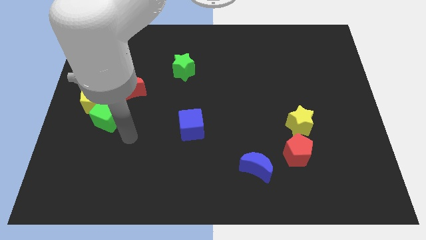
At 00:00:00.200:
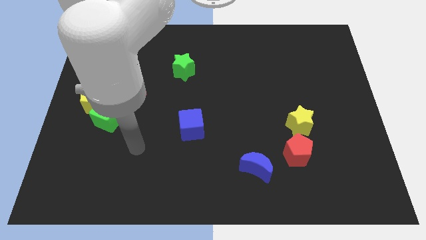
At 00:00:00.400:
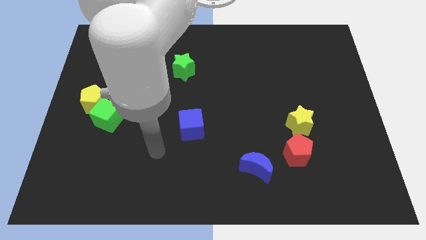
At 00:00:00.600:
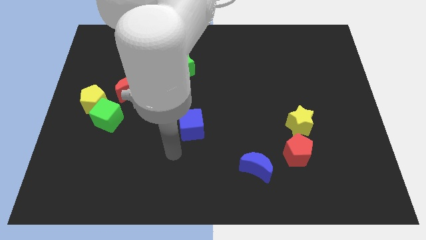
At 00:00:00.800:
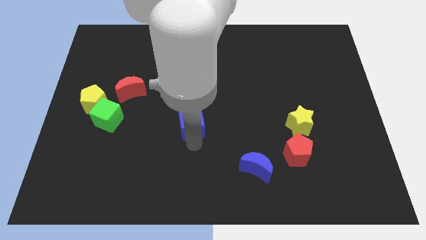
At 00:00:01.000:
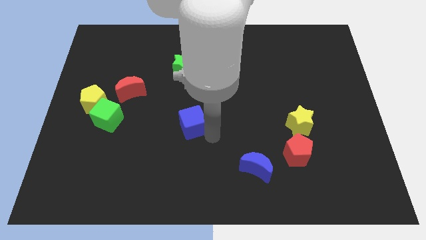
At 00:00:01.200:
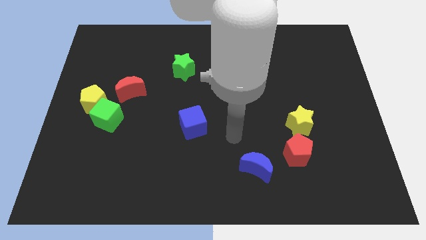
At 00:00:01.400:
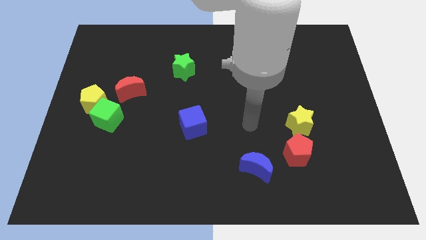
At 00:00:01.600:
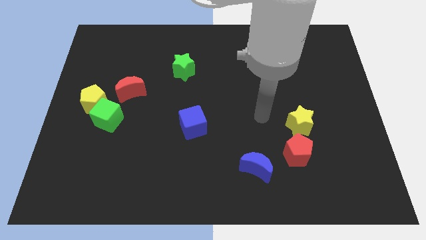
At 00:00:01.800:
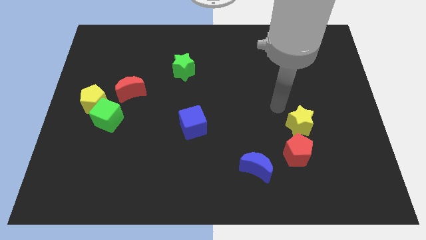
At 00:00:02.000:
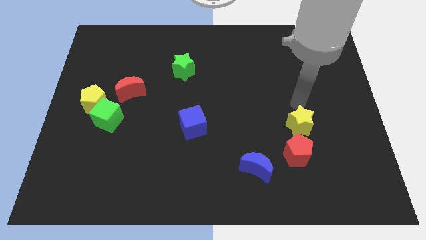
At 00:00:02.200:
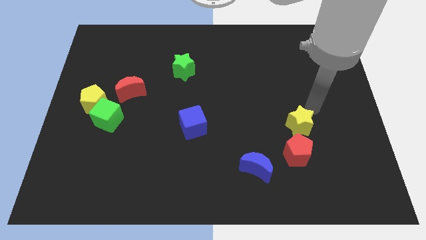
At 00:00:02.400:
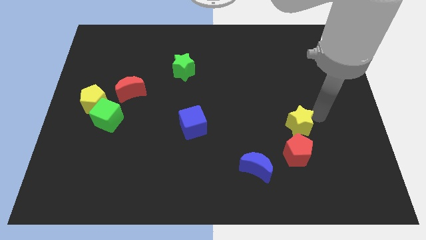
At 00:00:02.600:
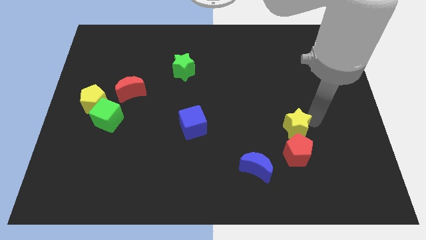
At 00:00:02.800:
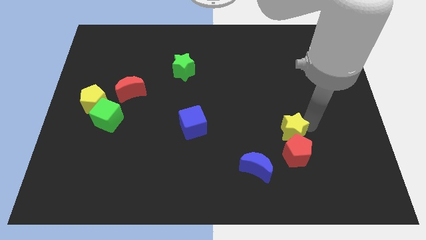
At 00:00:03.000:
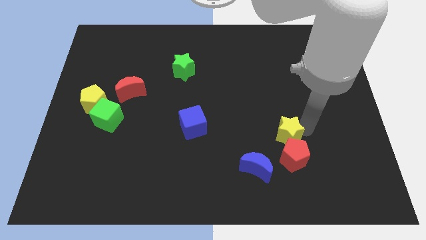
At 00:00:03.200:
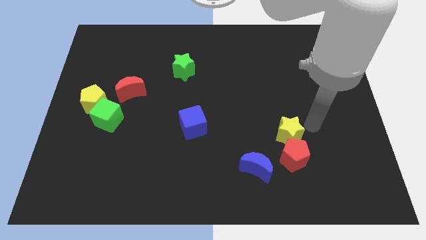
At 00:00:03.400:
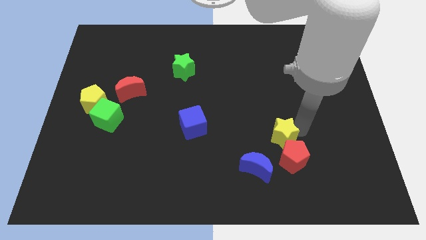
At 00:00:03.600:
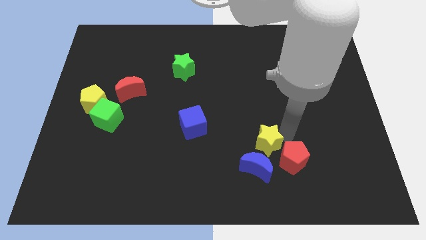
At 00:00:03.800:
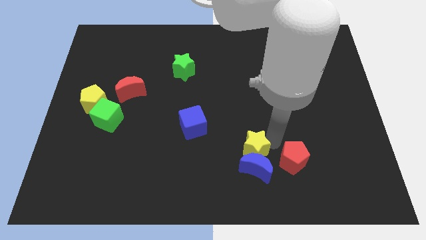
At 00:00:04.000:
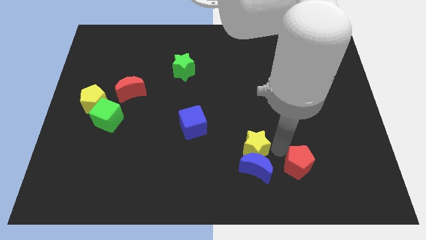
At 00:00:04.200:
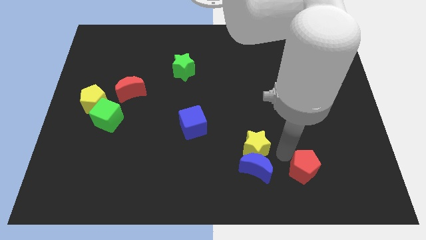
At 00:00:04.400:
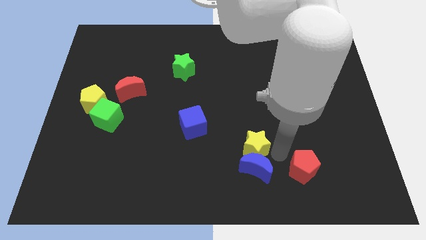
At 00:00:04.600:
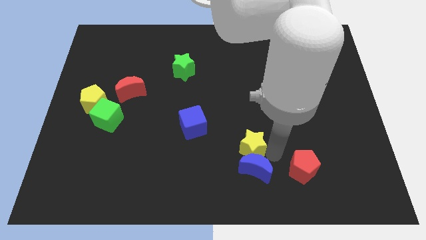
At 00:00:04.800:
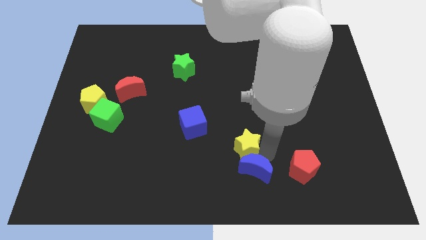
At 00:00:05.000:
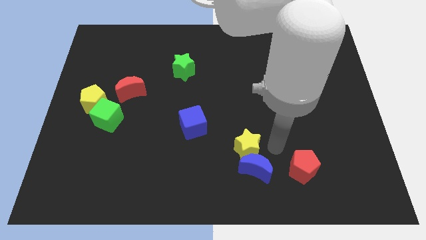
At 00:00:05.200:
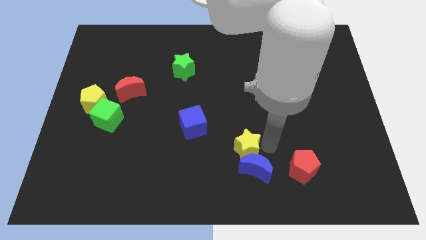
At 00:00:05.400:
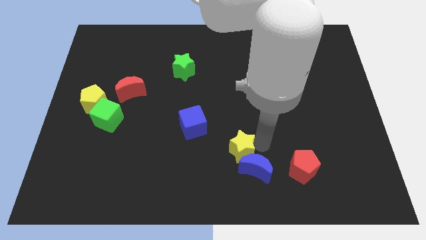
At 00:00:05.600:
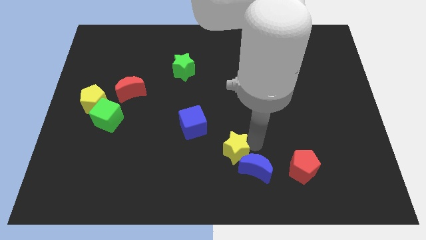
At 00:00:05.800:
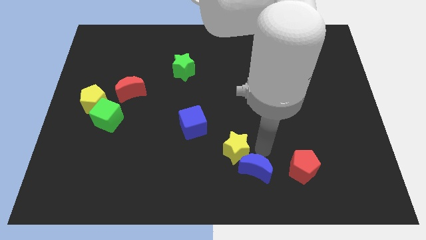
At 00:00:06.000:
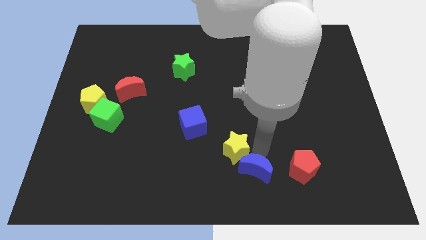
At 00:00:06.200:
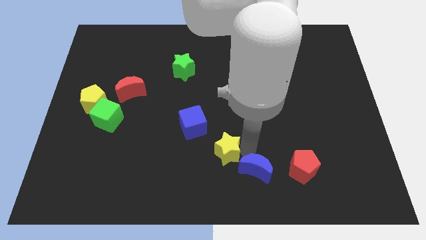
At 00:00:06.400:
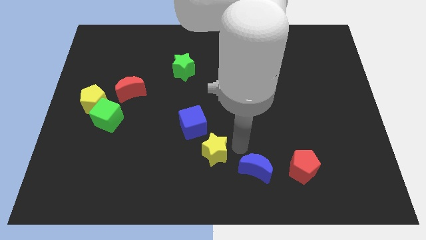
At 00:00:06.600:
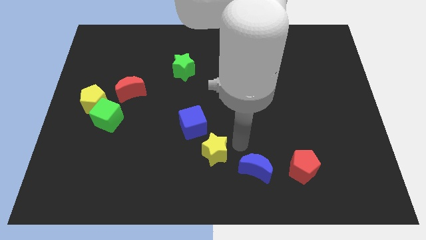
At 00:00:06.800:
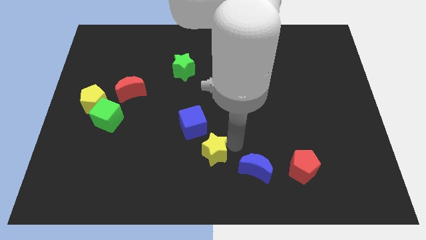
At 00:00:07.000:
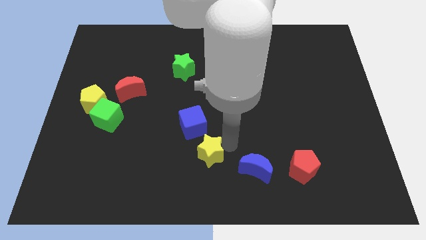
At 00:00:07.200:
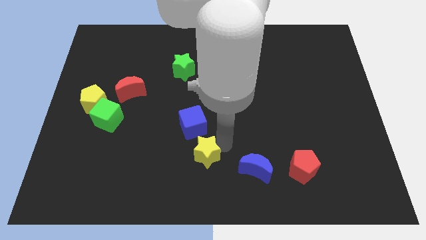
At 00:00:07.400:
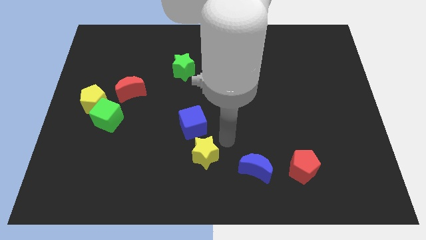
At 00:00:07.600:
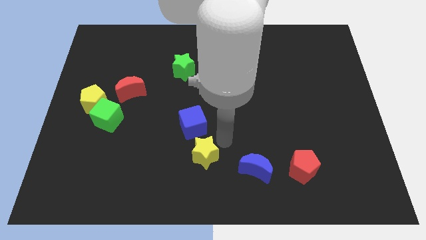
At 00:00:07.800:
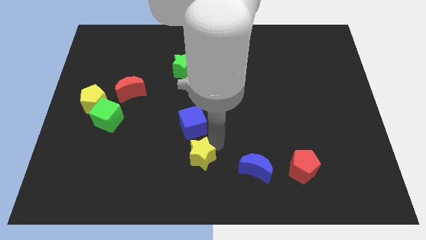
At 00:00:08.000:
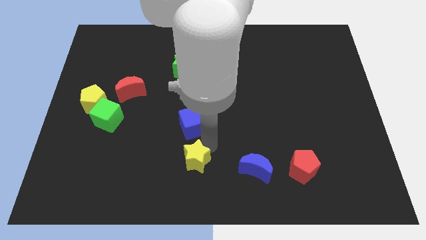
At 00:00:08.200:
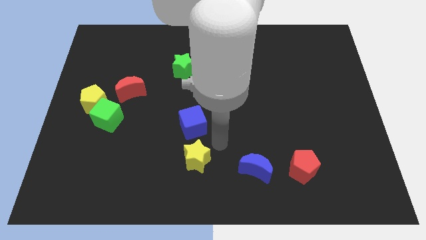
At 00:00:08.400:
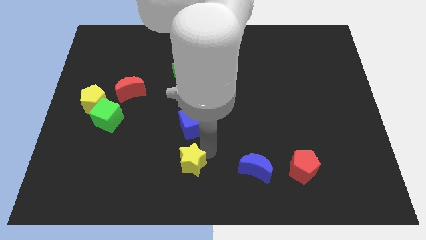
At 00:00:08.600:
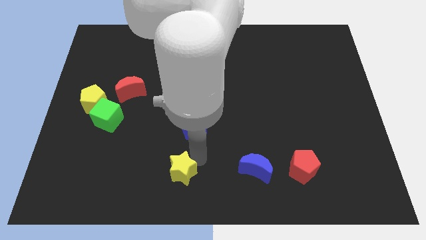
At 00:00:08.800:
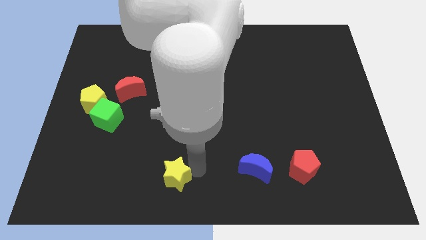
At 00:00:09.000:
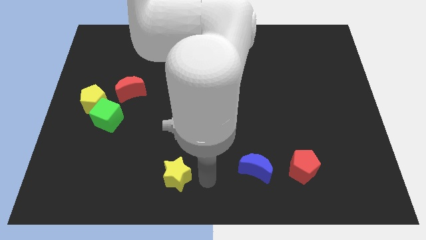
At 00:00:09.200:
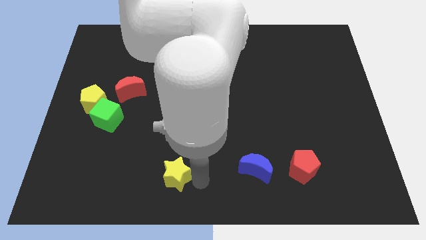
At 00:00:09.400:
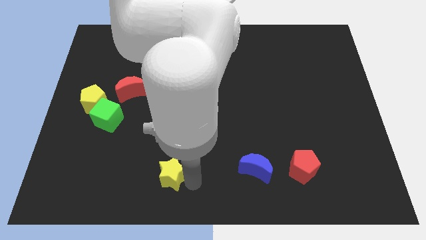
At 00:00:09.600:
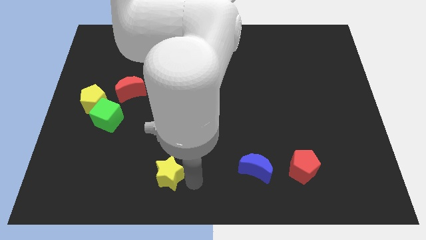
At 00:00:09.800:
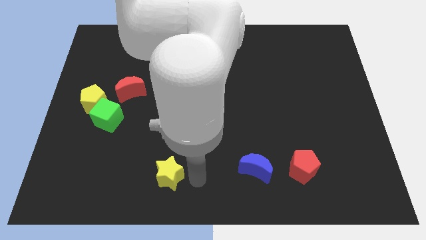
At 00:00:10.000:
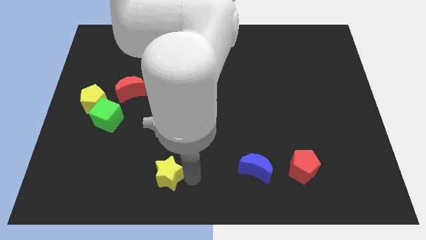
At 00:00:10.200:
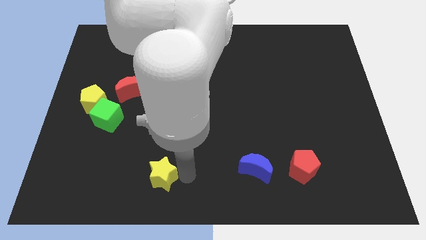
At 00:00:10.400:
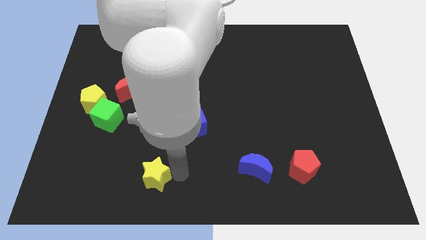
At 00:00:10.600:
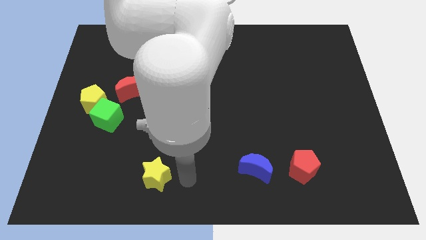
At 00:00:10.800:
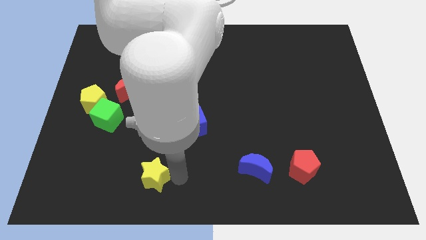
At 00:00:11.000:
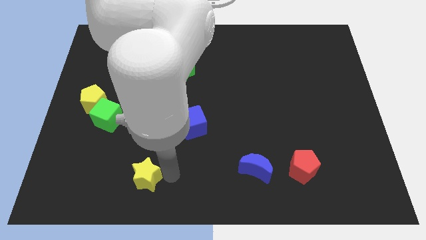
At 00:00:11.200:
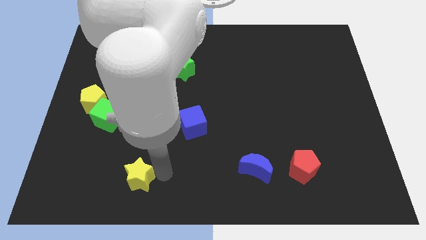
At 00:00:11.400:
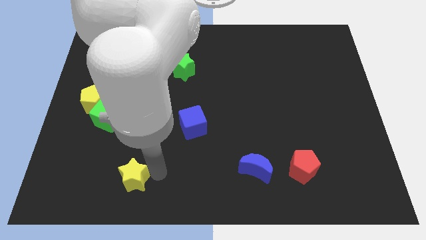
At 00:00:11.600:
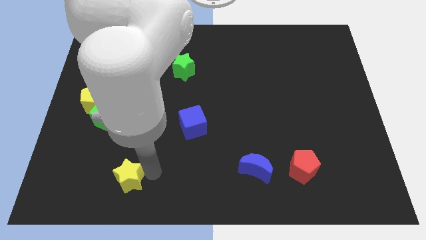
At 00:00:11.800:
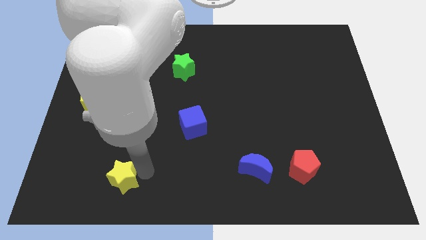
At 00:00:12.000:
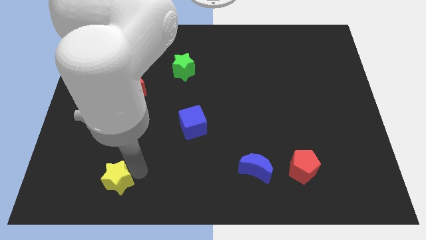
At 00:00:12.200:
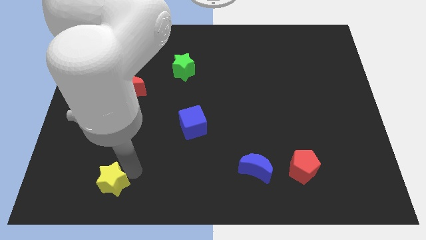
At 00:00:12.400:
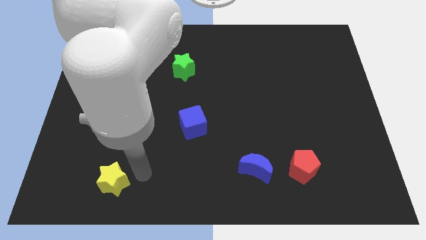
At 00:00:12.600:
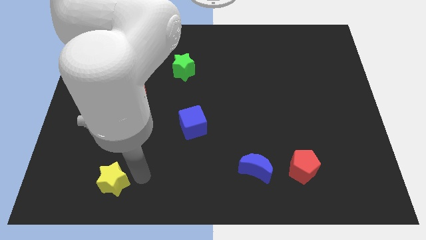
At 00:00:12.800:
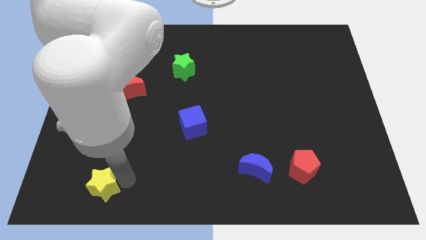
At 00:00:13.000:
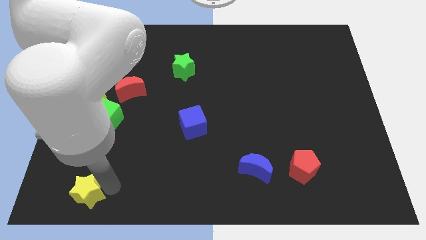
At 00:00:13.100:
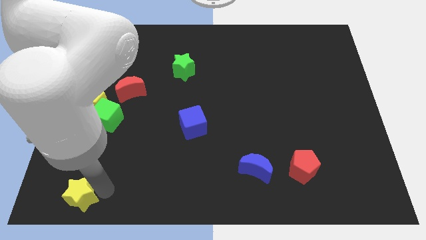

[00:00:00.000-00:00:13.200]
put the yellow star to the lower left corner
